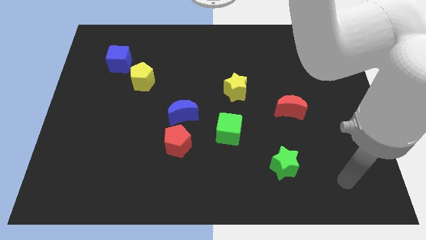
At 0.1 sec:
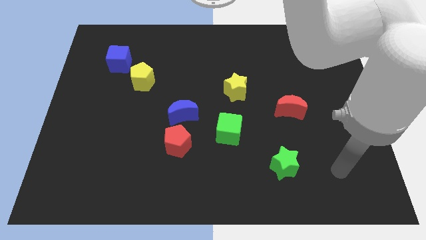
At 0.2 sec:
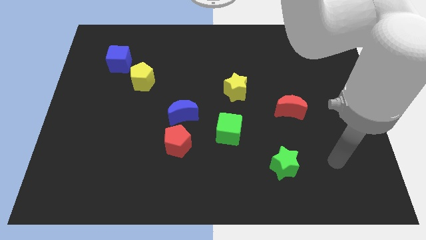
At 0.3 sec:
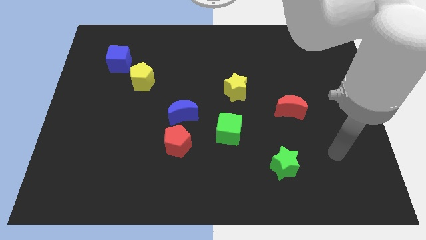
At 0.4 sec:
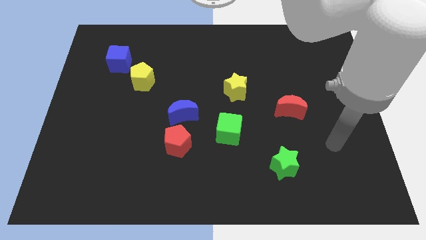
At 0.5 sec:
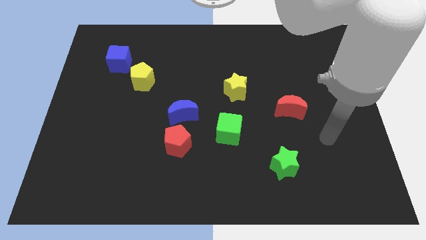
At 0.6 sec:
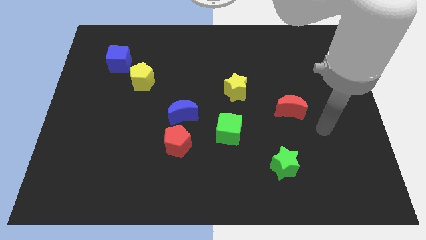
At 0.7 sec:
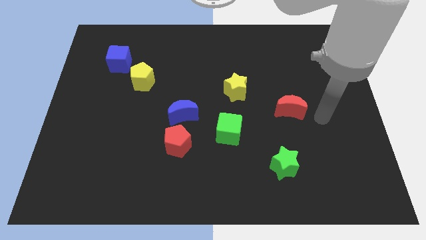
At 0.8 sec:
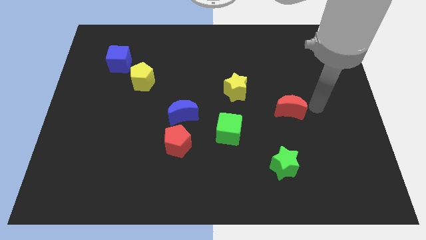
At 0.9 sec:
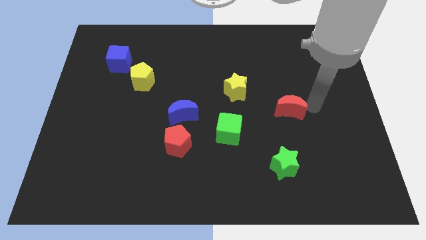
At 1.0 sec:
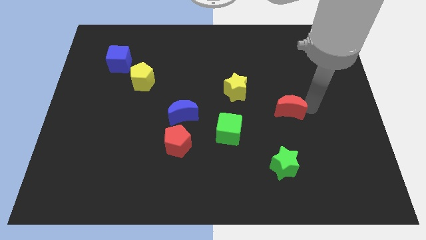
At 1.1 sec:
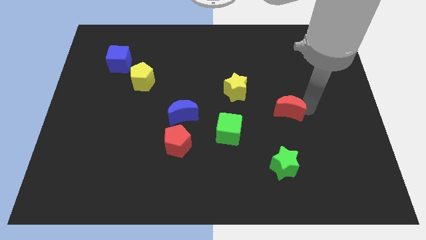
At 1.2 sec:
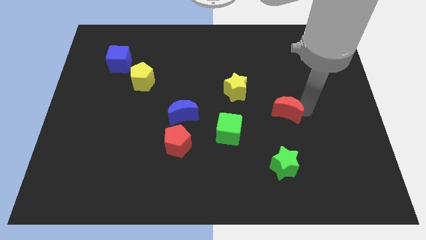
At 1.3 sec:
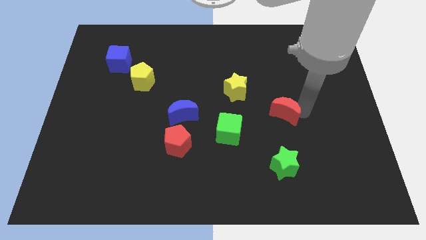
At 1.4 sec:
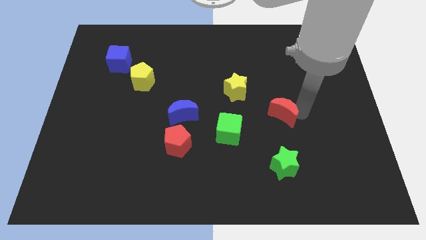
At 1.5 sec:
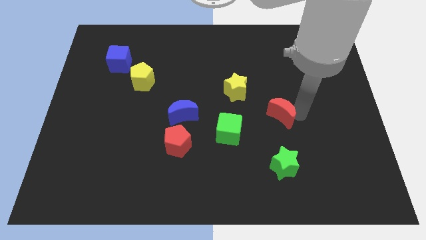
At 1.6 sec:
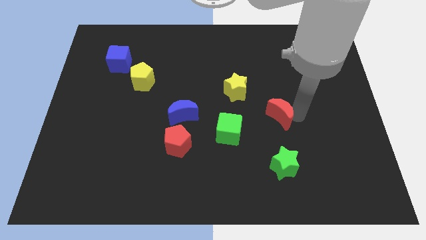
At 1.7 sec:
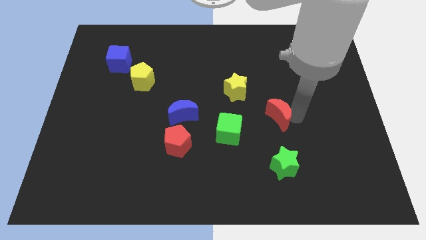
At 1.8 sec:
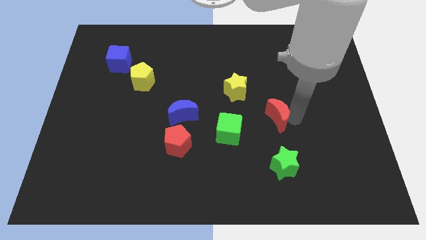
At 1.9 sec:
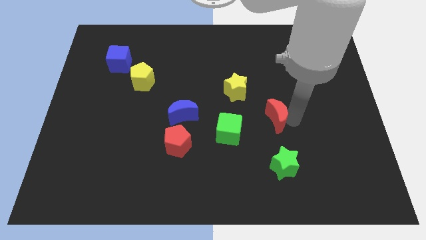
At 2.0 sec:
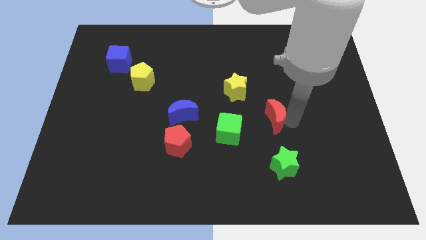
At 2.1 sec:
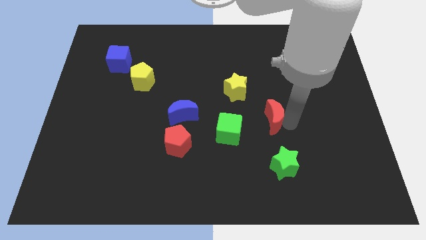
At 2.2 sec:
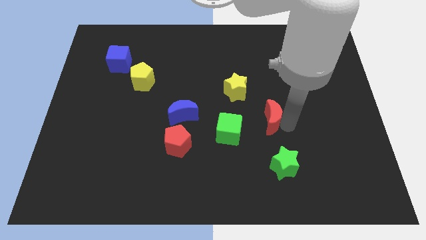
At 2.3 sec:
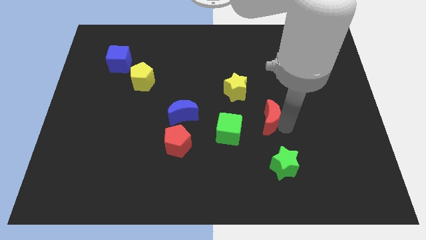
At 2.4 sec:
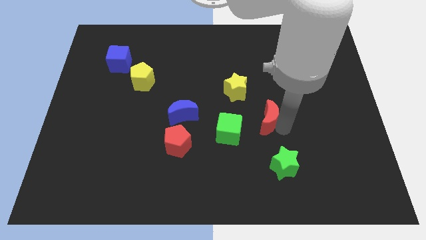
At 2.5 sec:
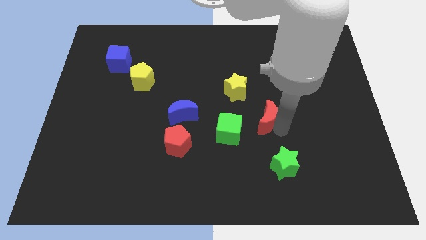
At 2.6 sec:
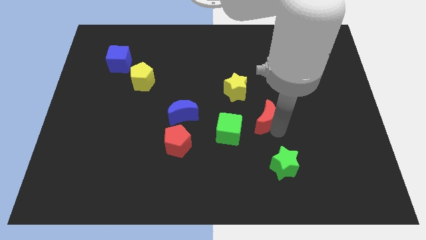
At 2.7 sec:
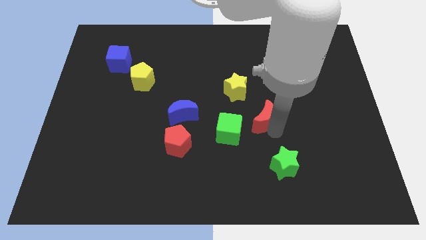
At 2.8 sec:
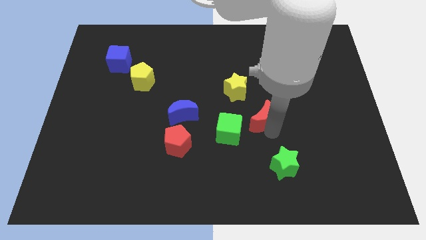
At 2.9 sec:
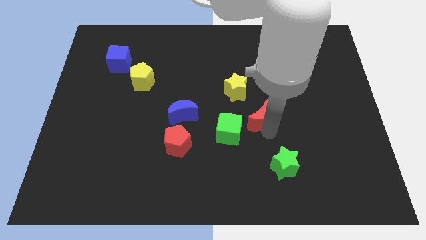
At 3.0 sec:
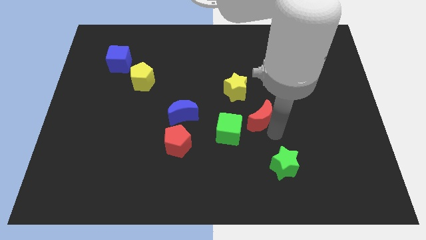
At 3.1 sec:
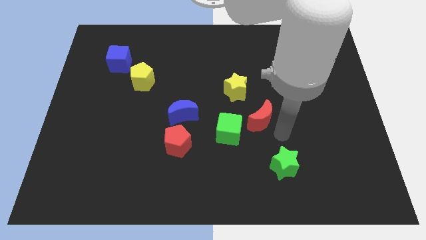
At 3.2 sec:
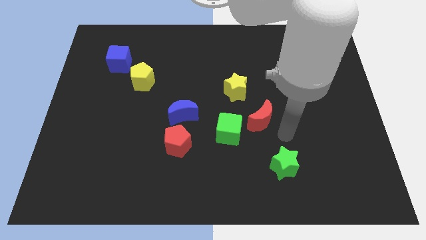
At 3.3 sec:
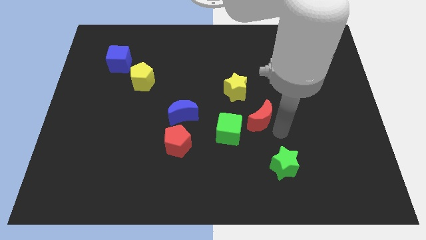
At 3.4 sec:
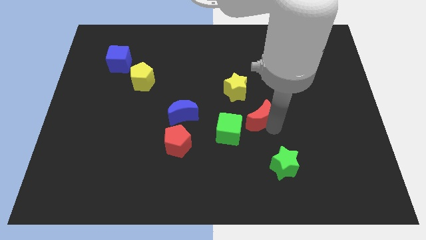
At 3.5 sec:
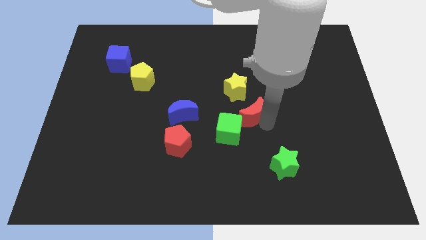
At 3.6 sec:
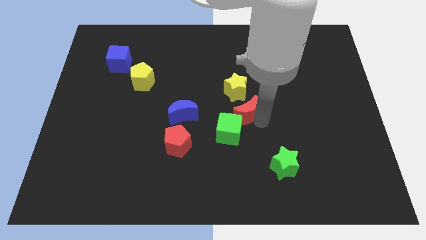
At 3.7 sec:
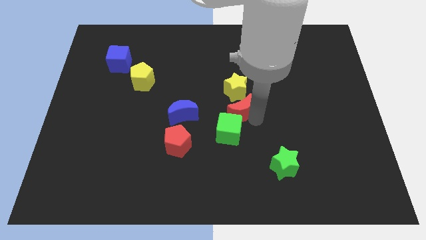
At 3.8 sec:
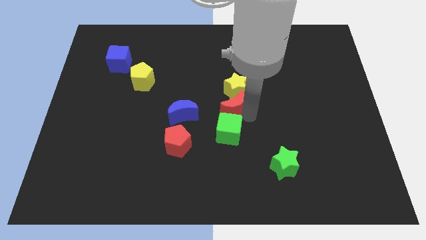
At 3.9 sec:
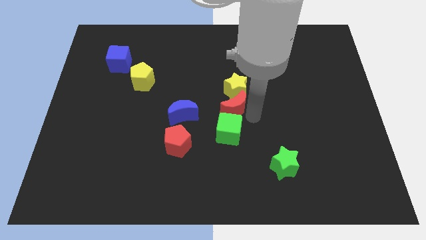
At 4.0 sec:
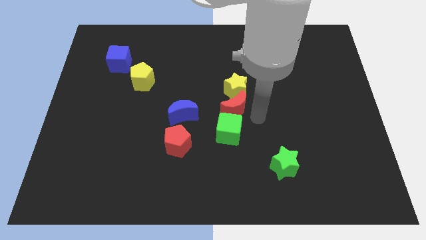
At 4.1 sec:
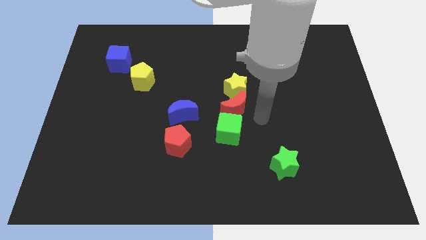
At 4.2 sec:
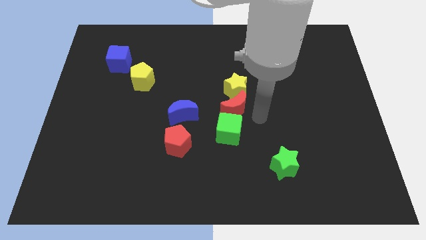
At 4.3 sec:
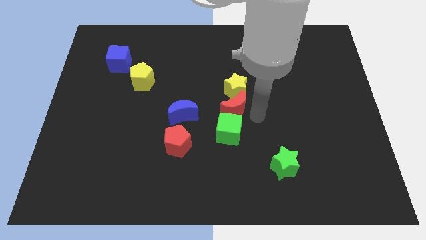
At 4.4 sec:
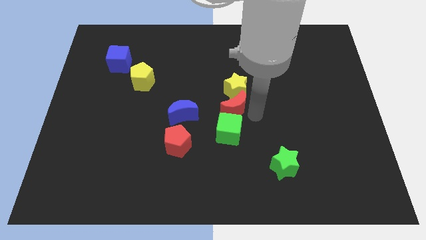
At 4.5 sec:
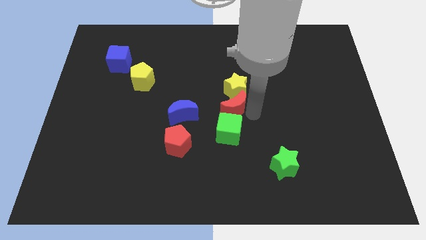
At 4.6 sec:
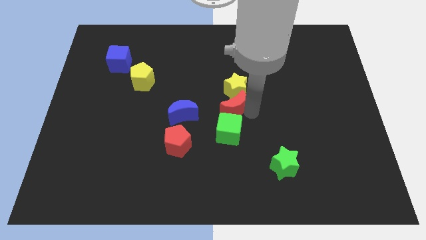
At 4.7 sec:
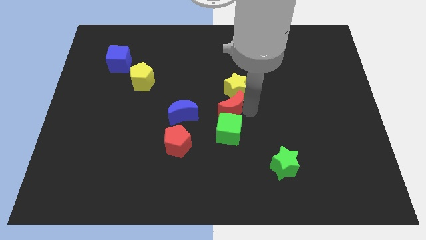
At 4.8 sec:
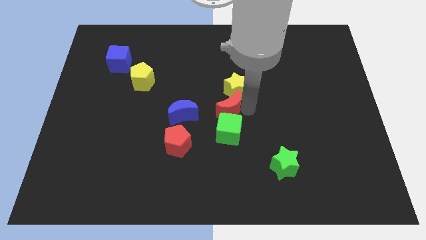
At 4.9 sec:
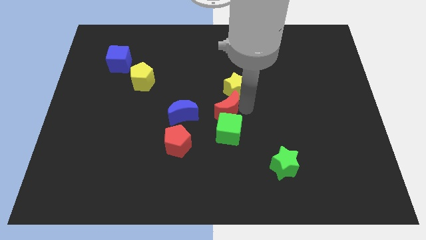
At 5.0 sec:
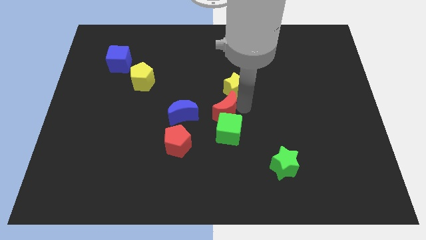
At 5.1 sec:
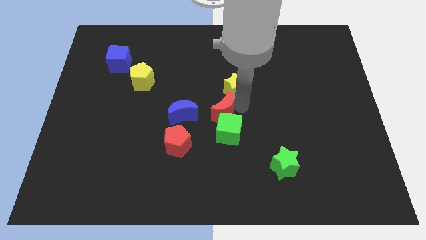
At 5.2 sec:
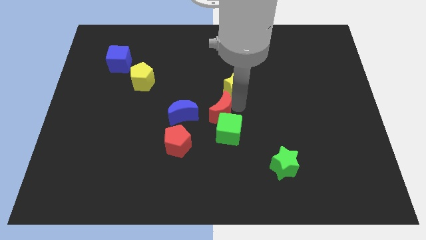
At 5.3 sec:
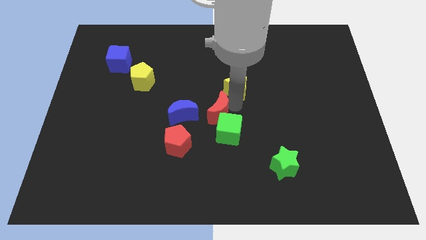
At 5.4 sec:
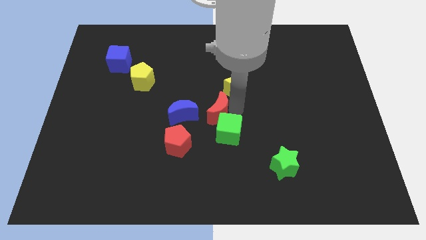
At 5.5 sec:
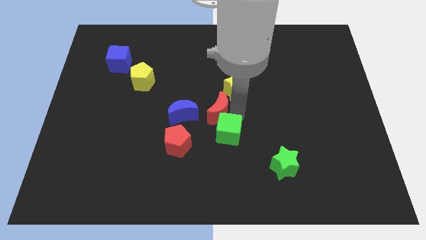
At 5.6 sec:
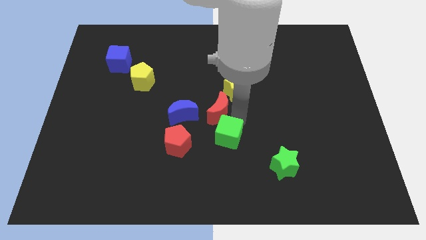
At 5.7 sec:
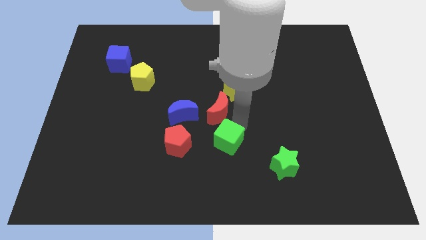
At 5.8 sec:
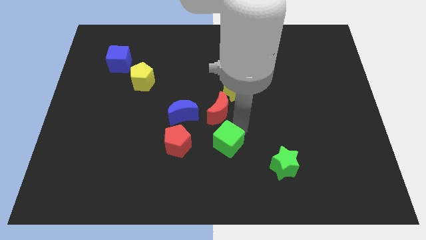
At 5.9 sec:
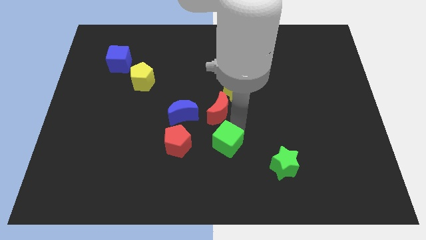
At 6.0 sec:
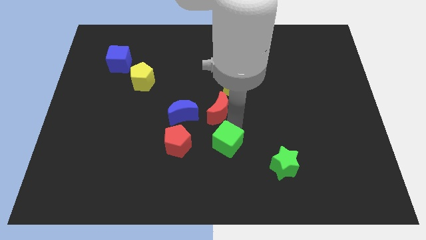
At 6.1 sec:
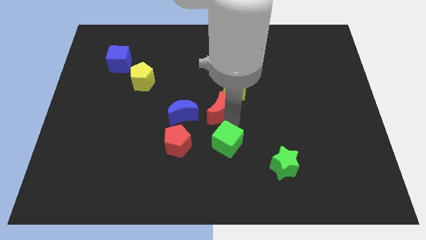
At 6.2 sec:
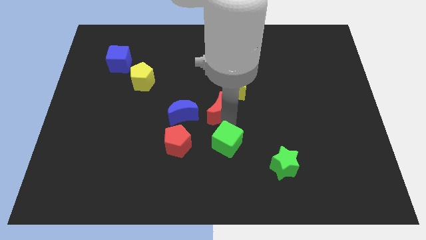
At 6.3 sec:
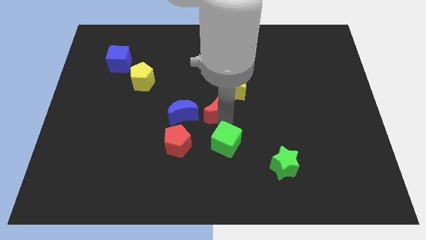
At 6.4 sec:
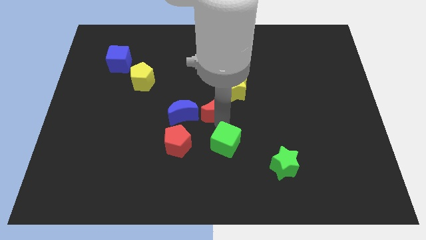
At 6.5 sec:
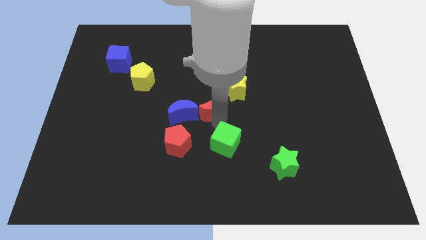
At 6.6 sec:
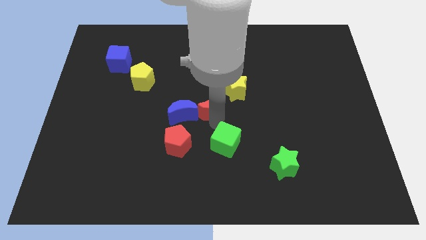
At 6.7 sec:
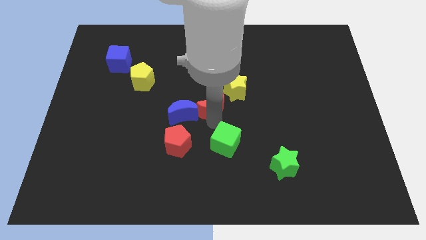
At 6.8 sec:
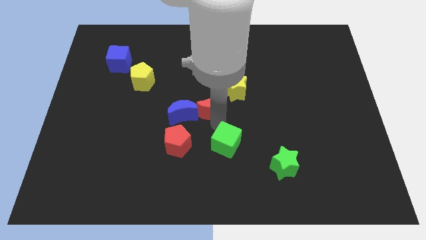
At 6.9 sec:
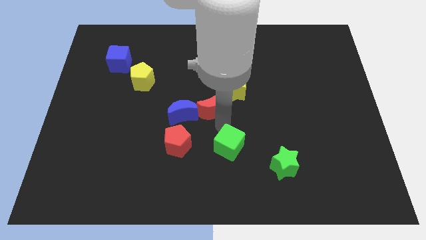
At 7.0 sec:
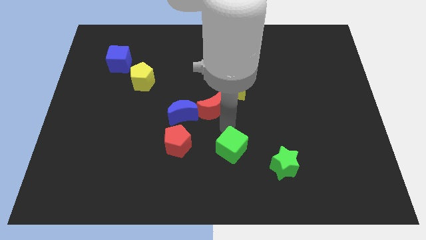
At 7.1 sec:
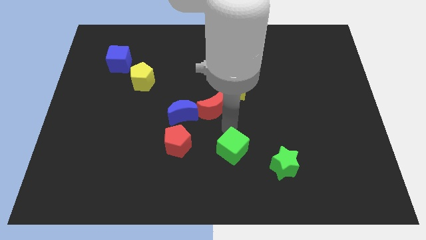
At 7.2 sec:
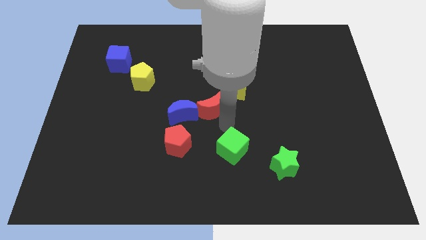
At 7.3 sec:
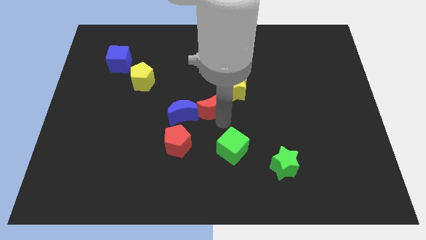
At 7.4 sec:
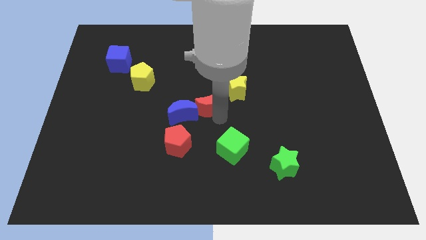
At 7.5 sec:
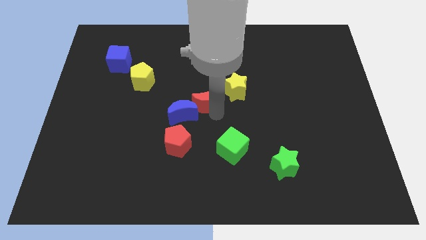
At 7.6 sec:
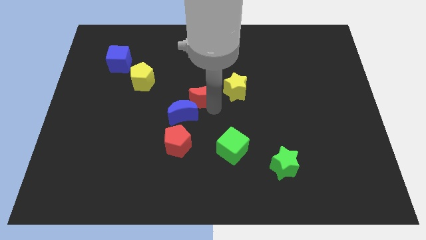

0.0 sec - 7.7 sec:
slide the red moon left

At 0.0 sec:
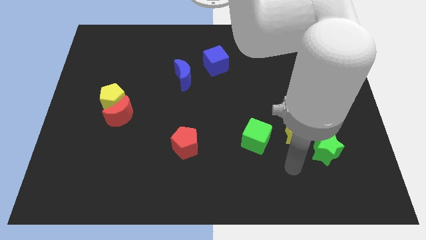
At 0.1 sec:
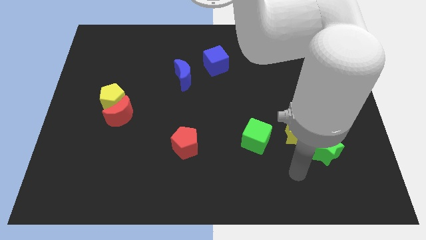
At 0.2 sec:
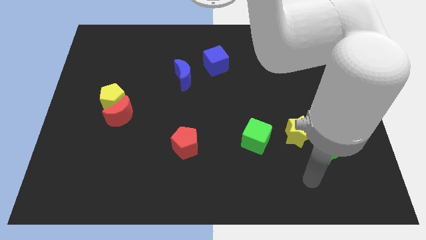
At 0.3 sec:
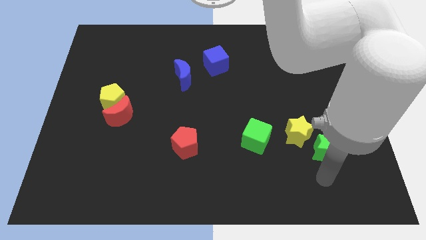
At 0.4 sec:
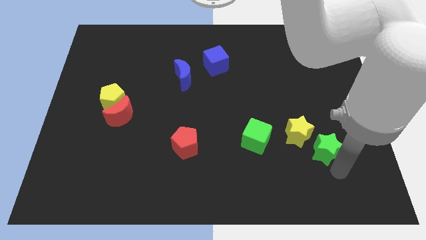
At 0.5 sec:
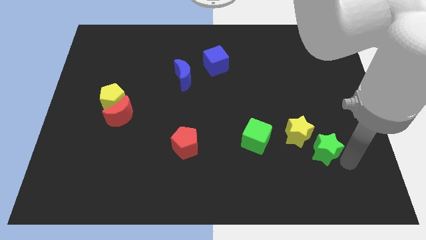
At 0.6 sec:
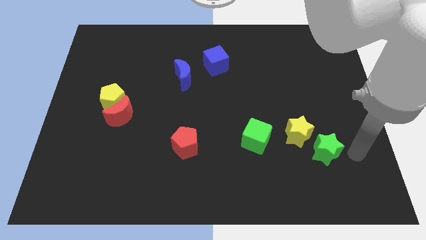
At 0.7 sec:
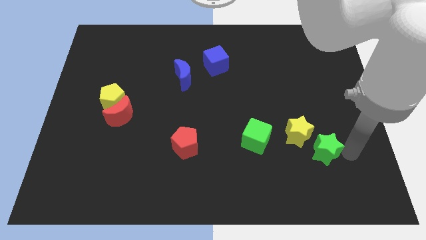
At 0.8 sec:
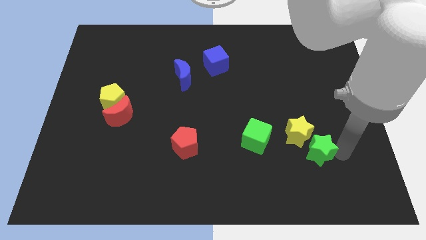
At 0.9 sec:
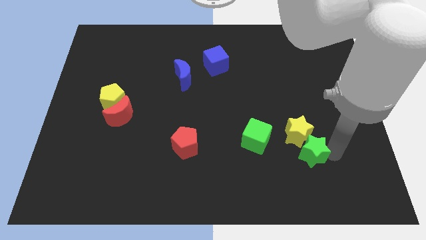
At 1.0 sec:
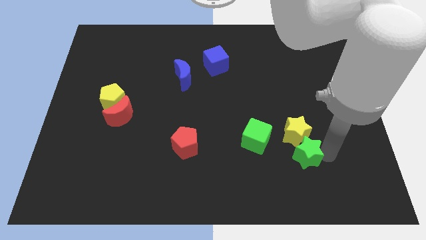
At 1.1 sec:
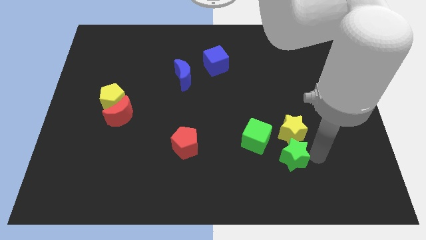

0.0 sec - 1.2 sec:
move the green star to the left a bit
